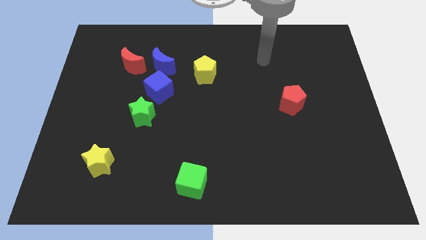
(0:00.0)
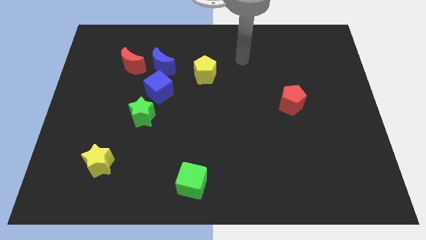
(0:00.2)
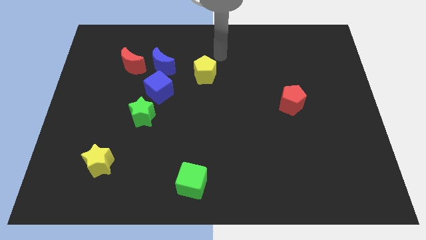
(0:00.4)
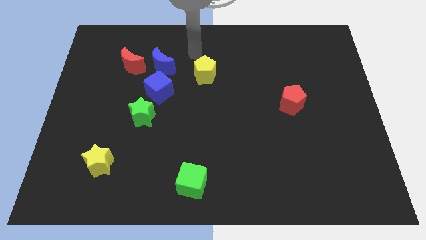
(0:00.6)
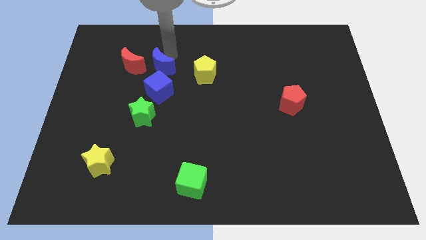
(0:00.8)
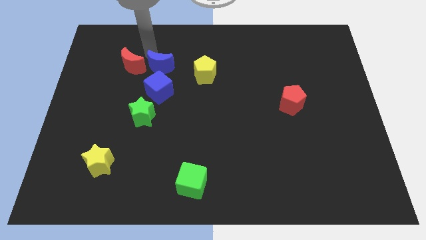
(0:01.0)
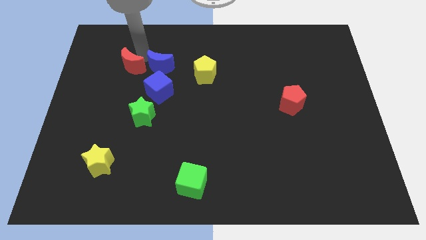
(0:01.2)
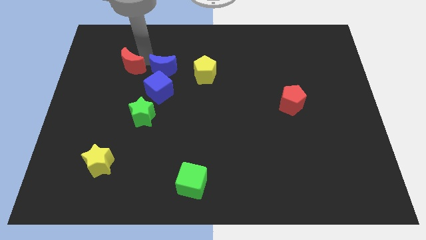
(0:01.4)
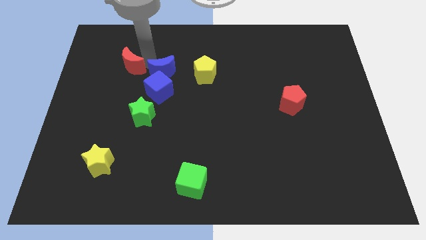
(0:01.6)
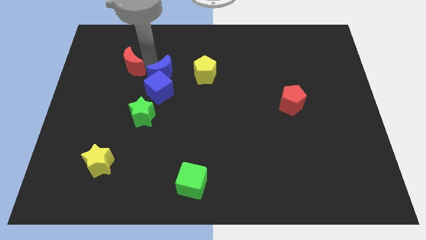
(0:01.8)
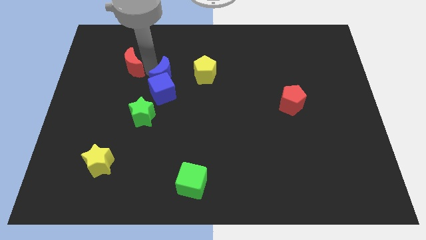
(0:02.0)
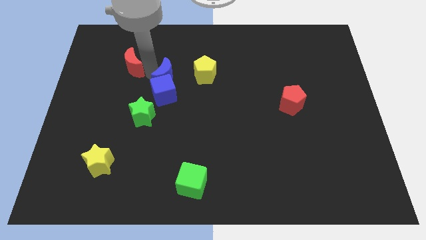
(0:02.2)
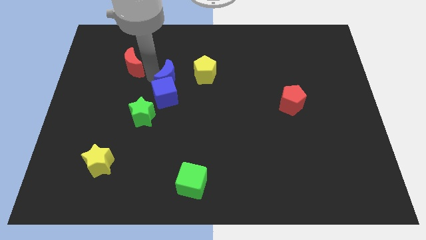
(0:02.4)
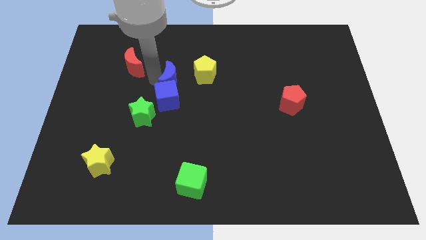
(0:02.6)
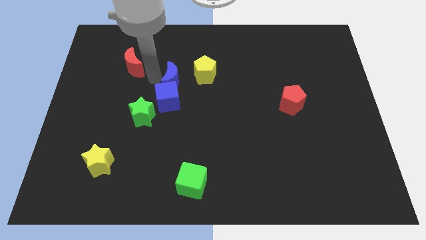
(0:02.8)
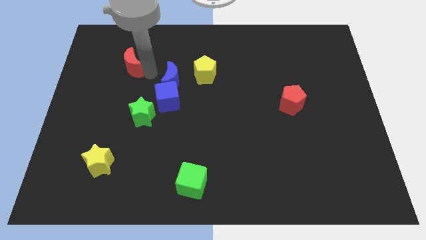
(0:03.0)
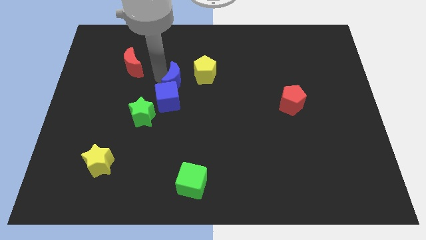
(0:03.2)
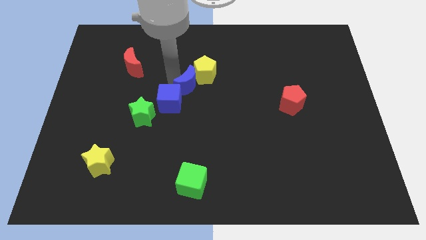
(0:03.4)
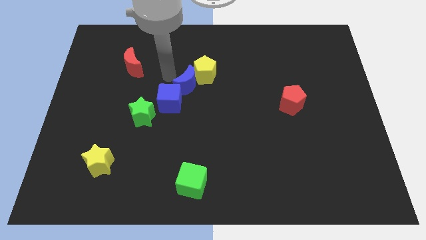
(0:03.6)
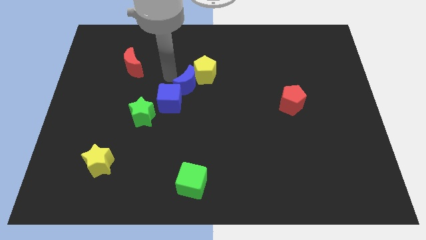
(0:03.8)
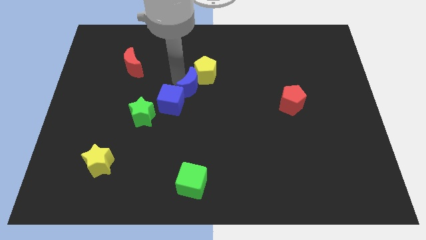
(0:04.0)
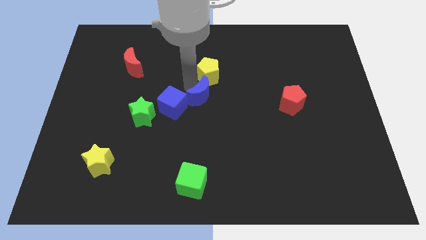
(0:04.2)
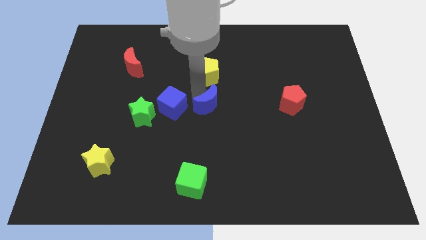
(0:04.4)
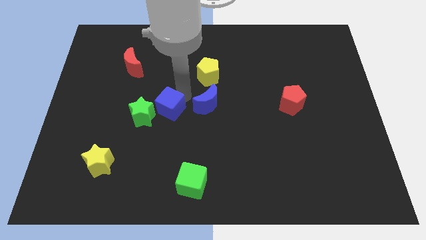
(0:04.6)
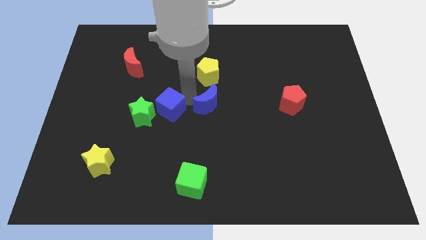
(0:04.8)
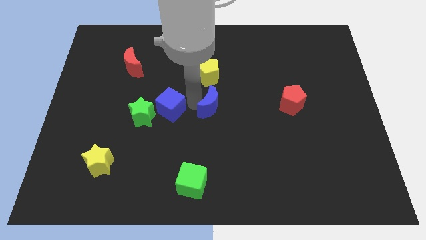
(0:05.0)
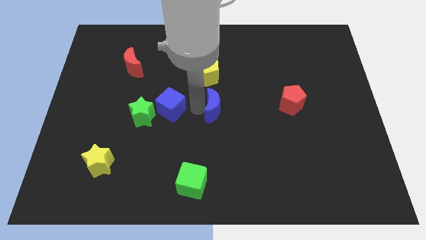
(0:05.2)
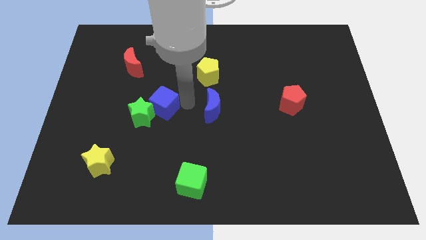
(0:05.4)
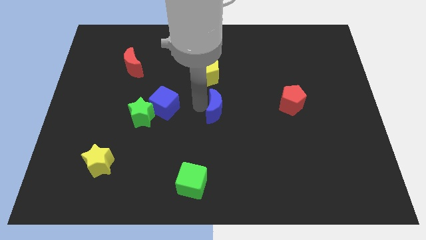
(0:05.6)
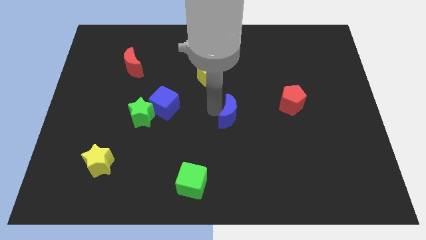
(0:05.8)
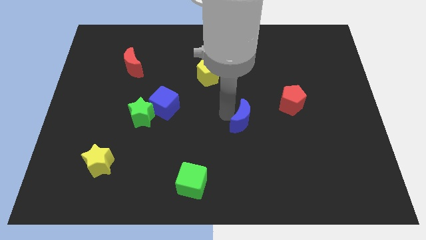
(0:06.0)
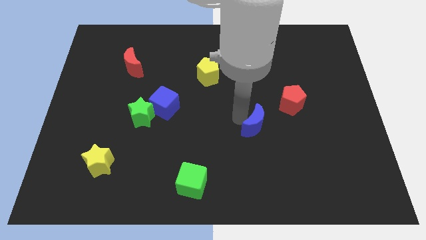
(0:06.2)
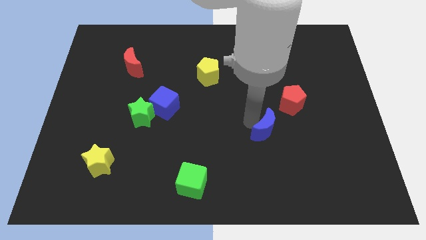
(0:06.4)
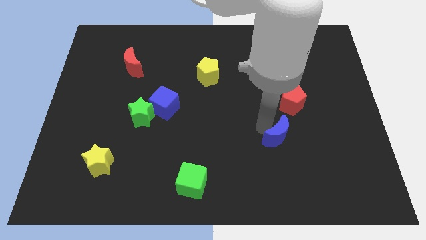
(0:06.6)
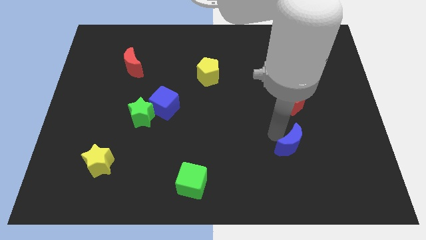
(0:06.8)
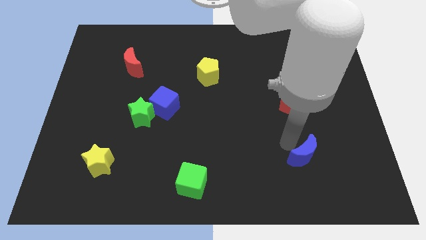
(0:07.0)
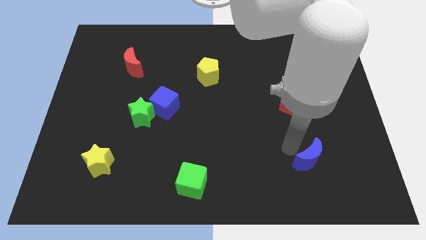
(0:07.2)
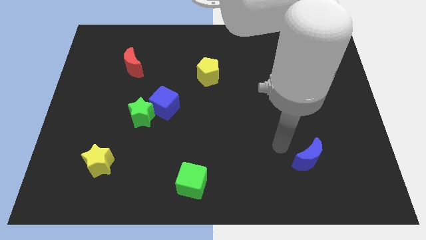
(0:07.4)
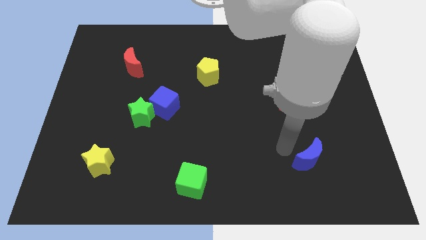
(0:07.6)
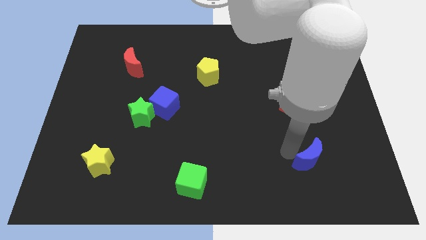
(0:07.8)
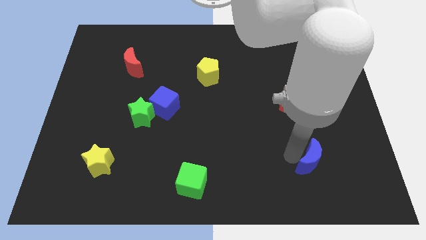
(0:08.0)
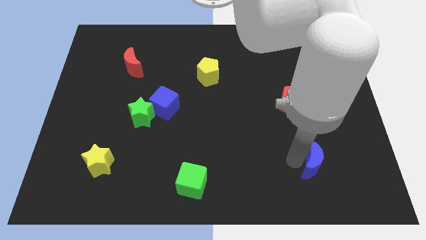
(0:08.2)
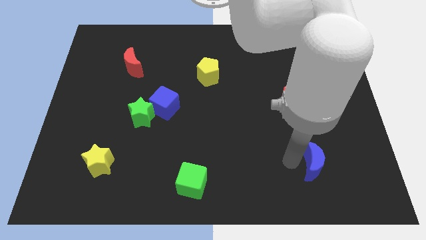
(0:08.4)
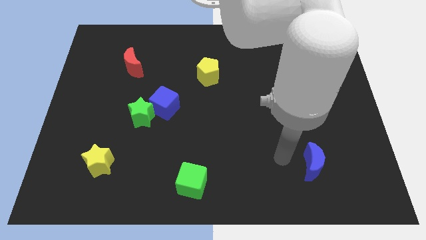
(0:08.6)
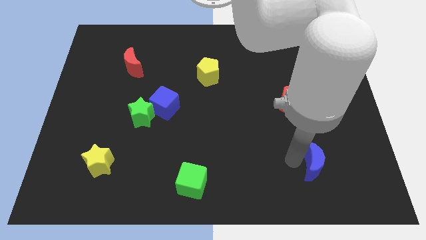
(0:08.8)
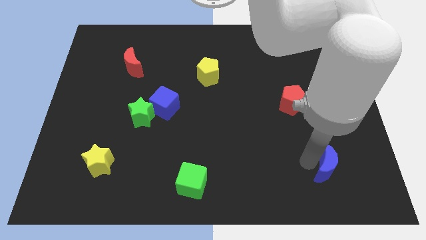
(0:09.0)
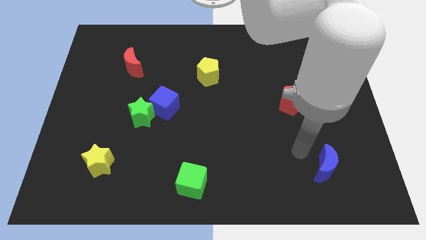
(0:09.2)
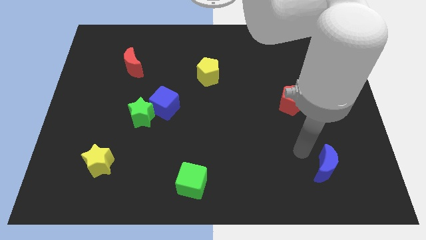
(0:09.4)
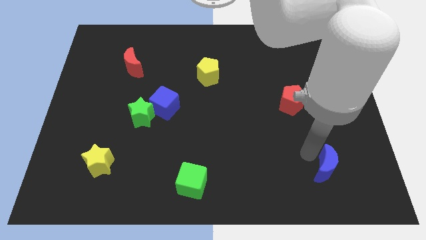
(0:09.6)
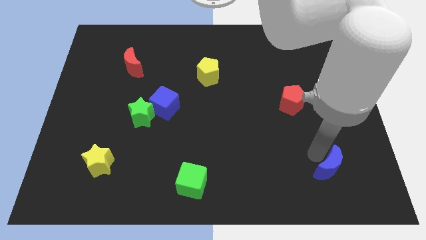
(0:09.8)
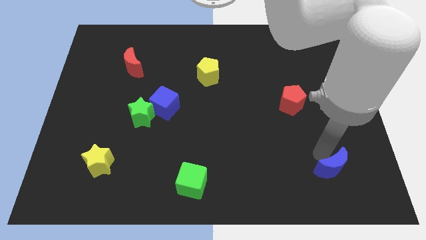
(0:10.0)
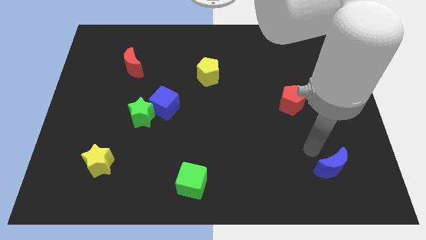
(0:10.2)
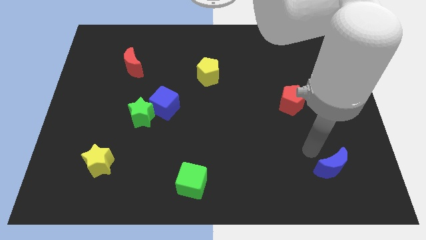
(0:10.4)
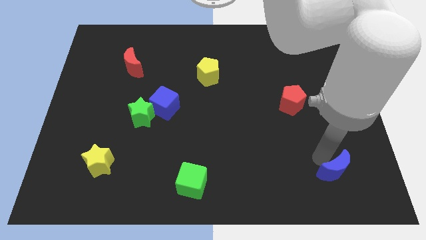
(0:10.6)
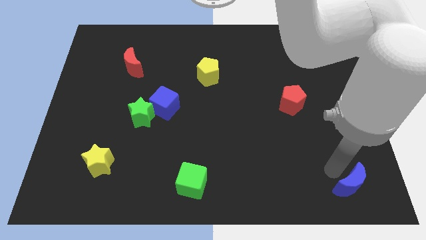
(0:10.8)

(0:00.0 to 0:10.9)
move the blue moon to the bottom right of the board

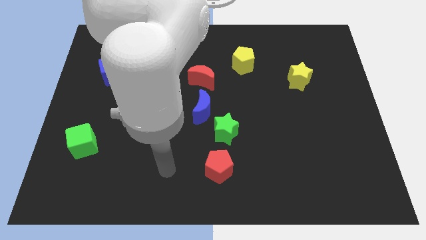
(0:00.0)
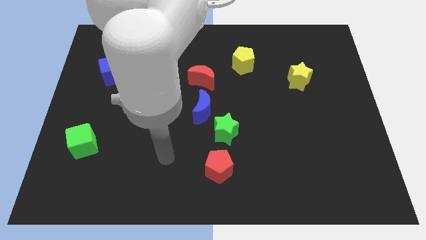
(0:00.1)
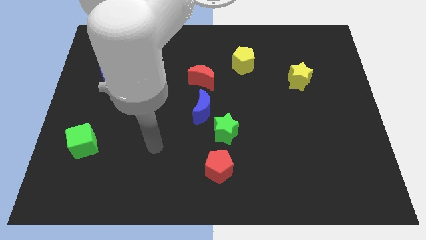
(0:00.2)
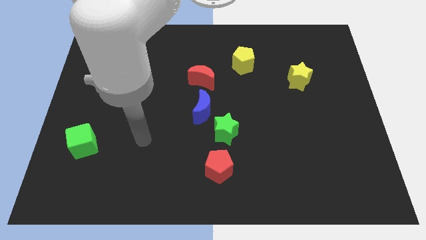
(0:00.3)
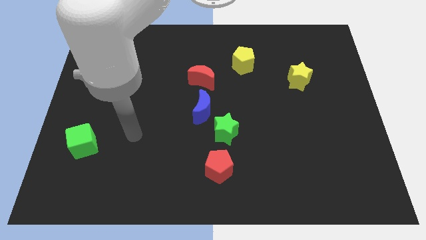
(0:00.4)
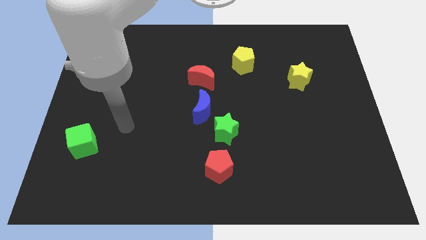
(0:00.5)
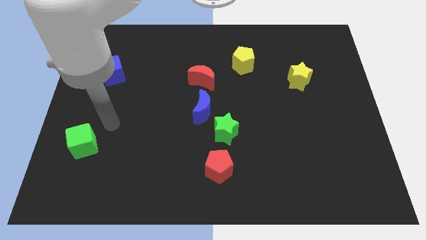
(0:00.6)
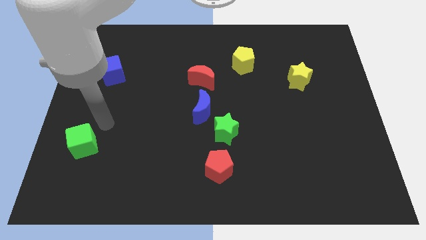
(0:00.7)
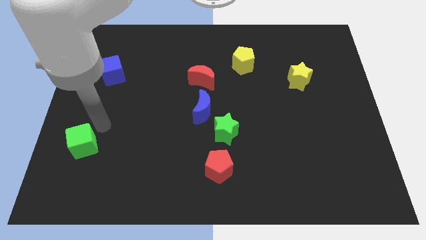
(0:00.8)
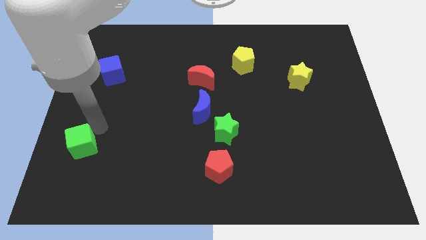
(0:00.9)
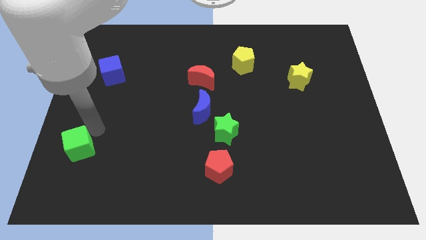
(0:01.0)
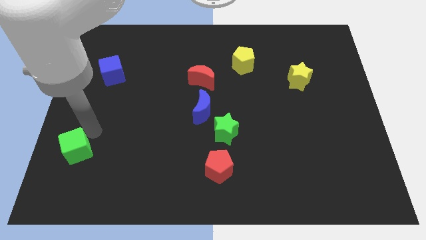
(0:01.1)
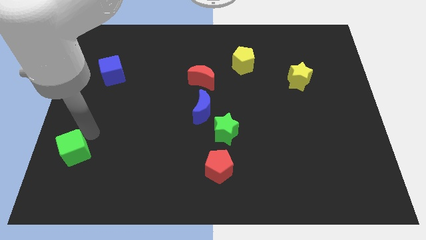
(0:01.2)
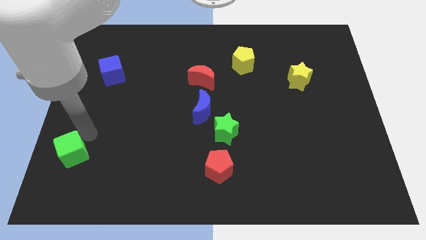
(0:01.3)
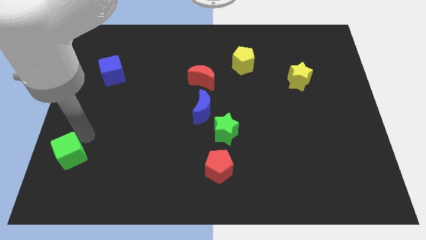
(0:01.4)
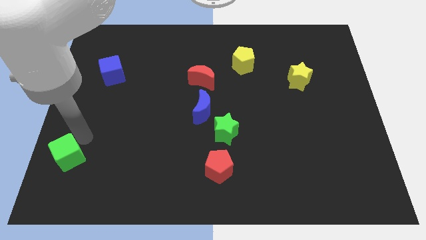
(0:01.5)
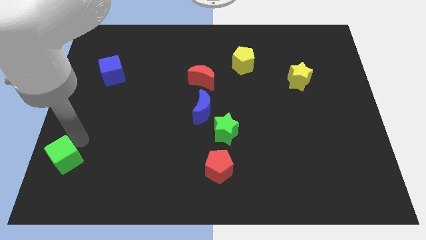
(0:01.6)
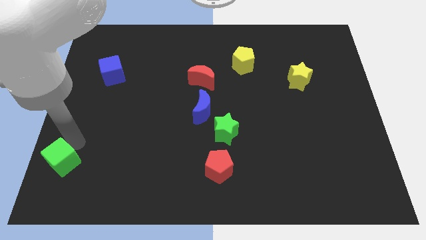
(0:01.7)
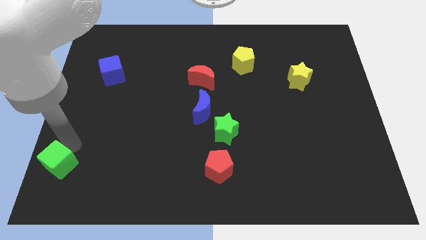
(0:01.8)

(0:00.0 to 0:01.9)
slide the green cube to the bottom left of the board
